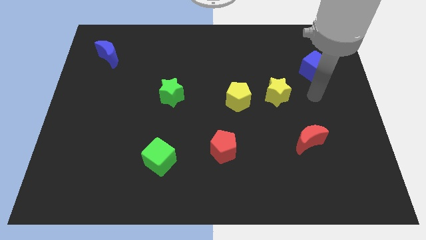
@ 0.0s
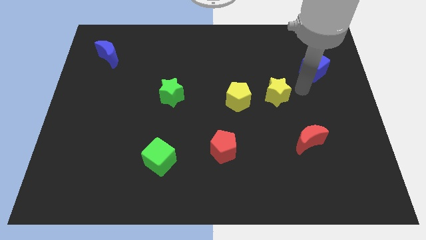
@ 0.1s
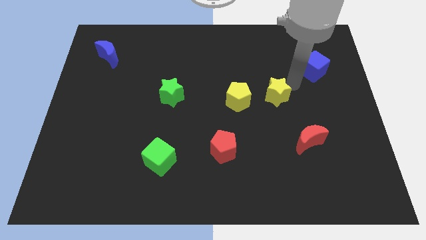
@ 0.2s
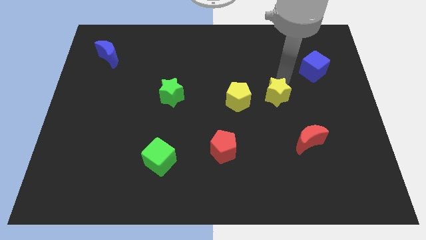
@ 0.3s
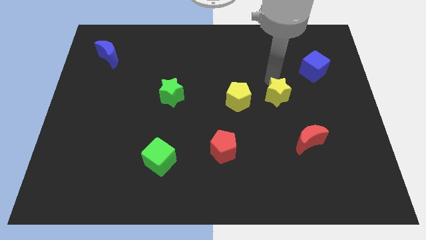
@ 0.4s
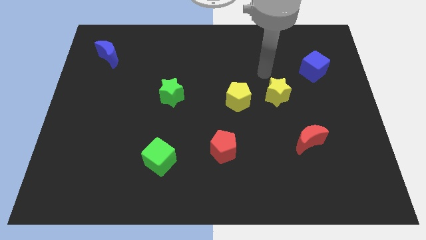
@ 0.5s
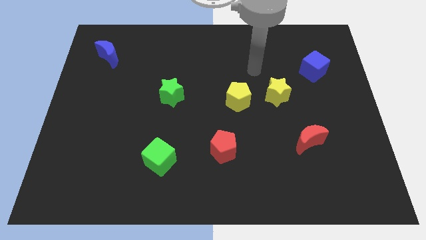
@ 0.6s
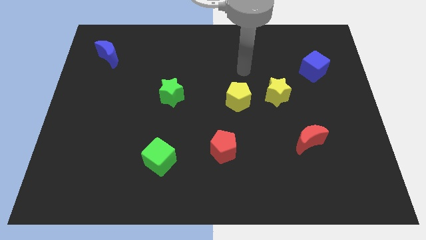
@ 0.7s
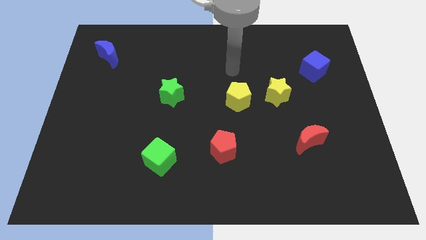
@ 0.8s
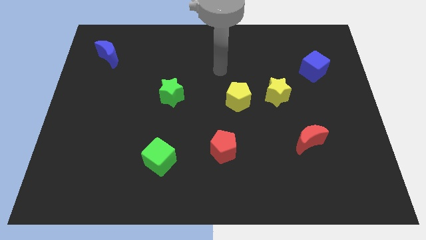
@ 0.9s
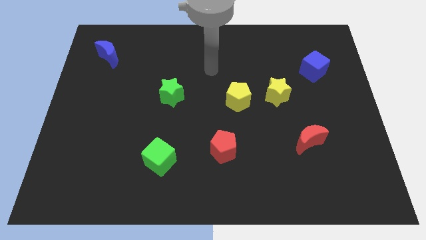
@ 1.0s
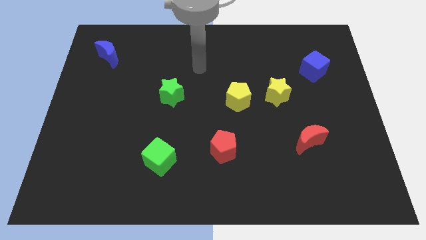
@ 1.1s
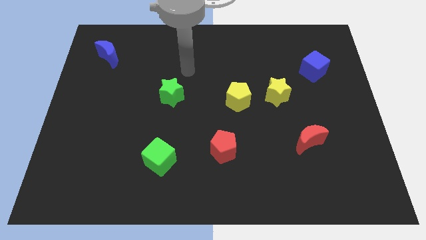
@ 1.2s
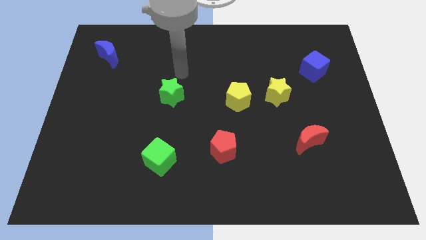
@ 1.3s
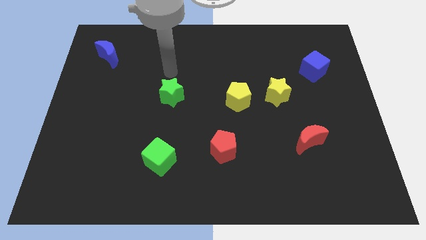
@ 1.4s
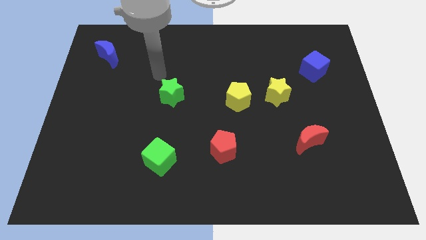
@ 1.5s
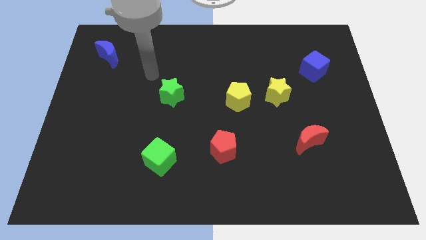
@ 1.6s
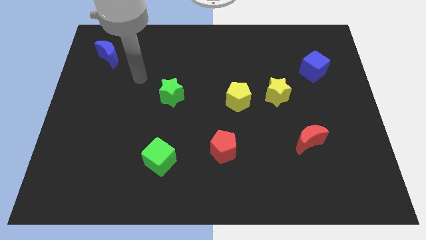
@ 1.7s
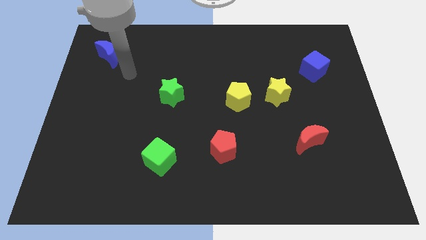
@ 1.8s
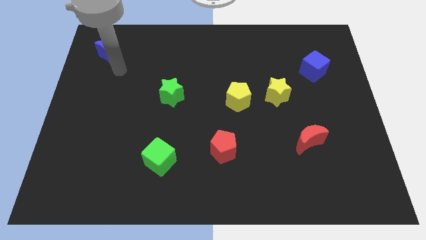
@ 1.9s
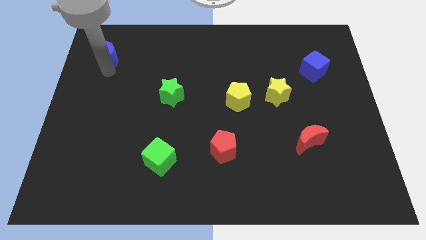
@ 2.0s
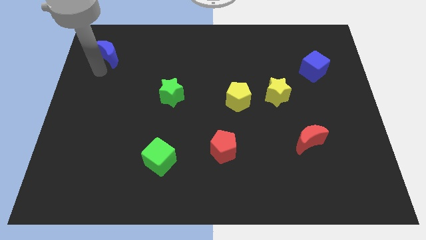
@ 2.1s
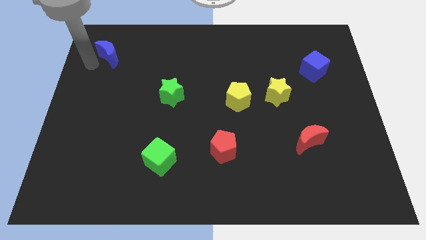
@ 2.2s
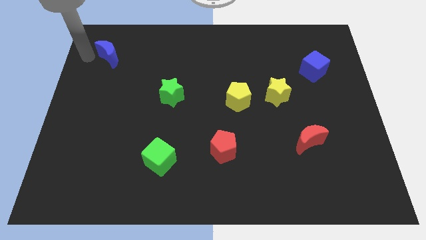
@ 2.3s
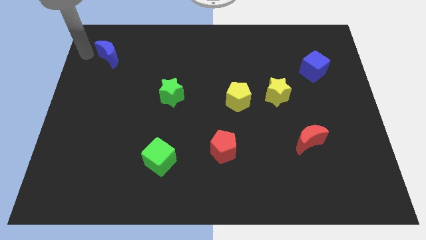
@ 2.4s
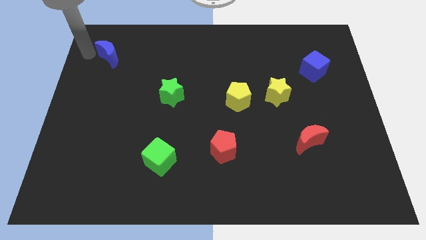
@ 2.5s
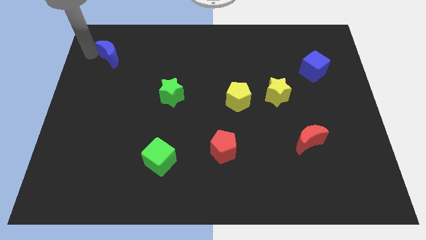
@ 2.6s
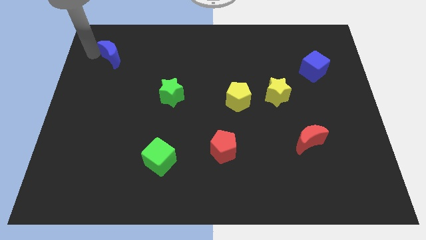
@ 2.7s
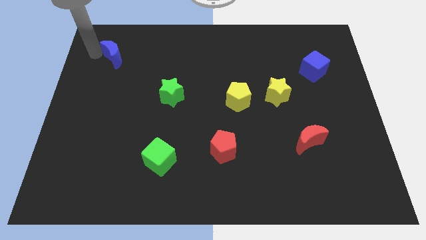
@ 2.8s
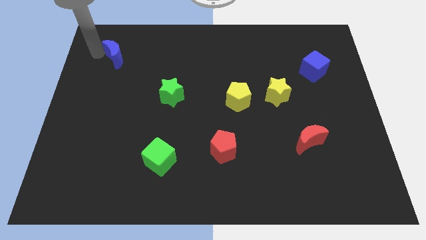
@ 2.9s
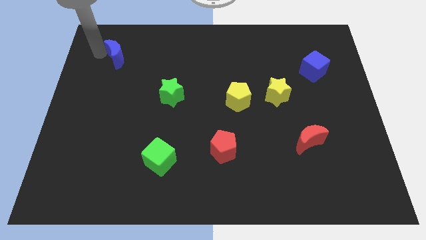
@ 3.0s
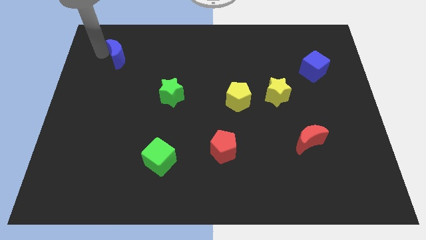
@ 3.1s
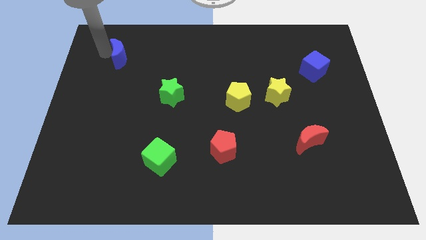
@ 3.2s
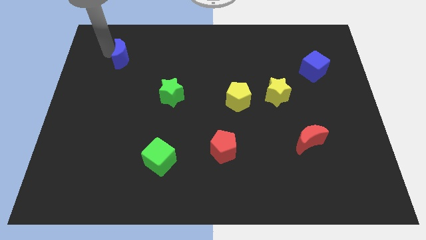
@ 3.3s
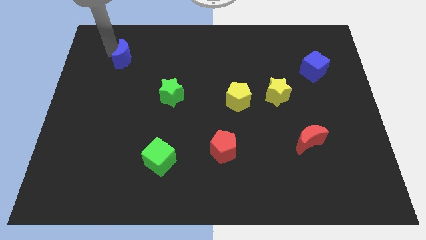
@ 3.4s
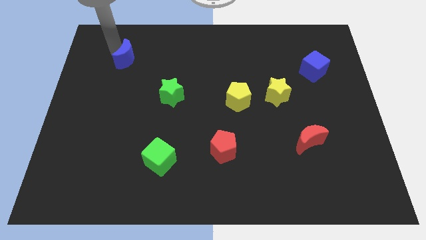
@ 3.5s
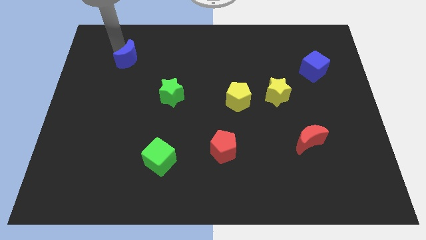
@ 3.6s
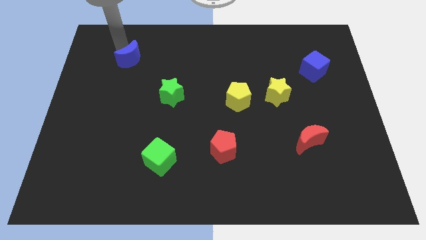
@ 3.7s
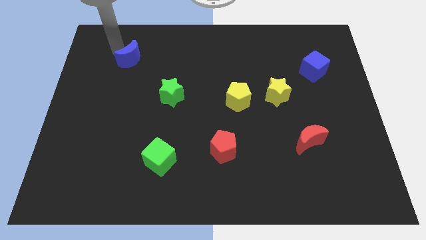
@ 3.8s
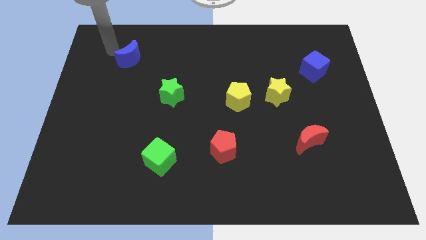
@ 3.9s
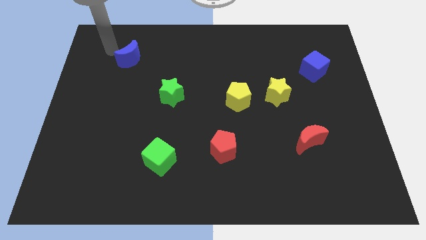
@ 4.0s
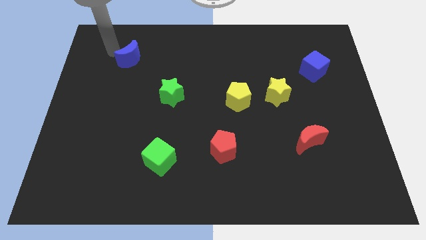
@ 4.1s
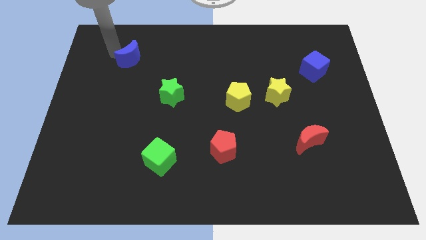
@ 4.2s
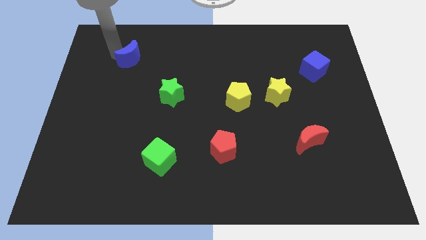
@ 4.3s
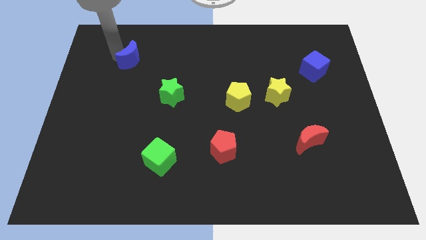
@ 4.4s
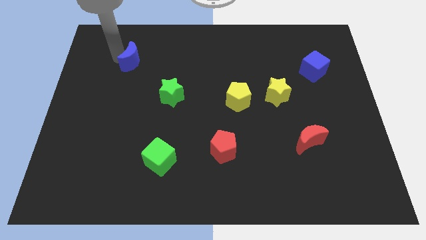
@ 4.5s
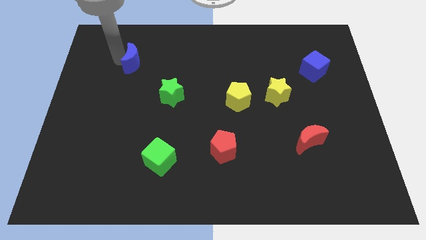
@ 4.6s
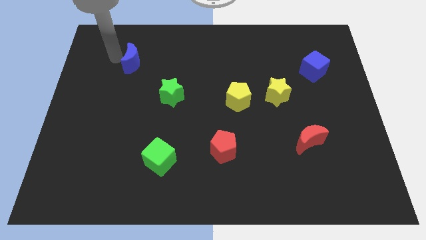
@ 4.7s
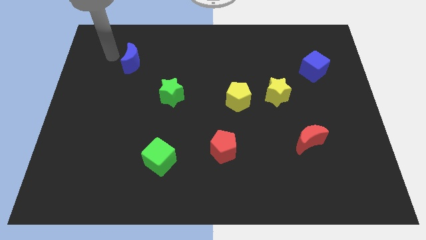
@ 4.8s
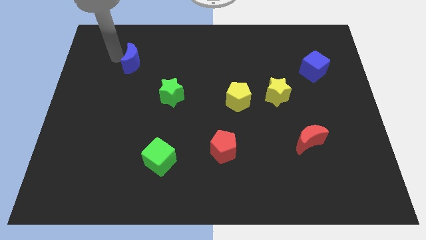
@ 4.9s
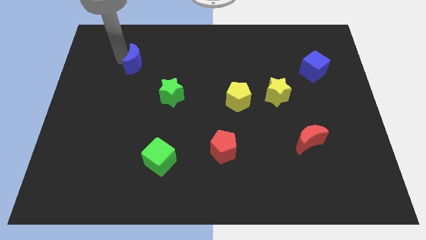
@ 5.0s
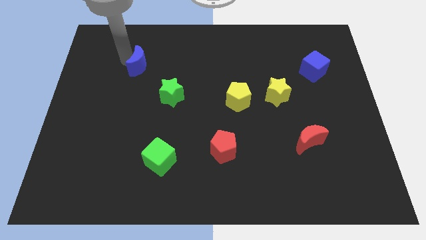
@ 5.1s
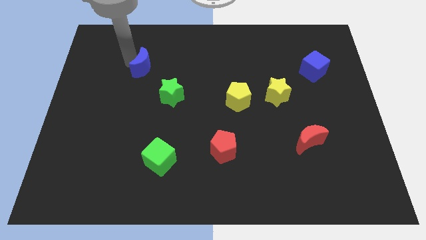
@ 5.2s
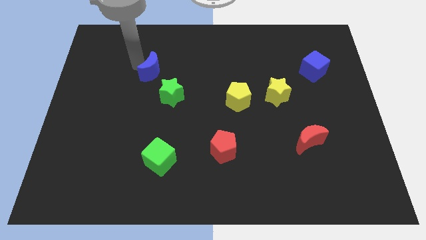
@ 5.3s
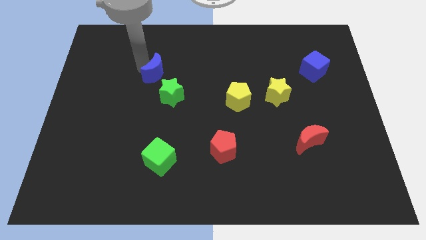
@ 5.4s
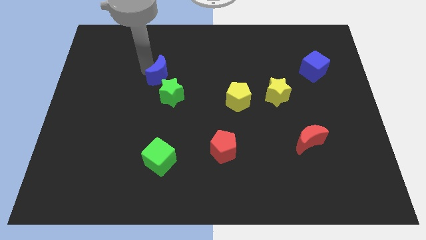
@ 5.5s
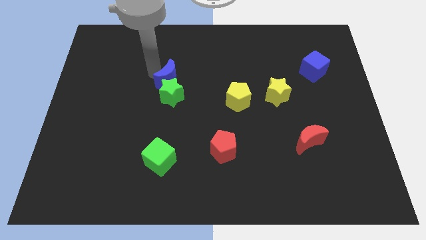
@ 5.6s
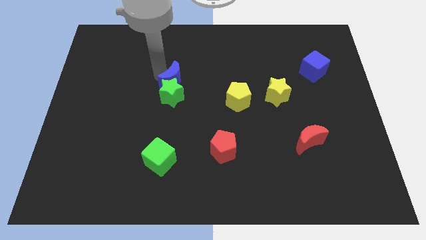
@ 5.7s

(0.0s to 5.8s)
slide the blue moon to the center of the board
